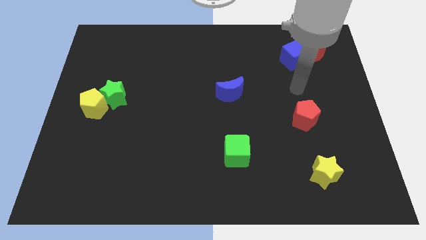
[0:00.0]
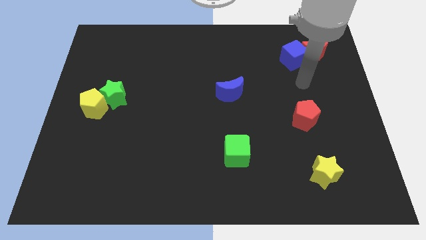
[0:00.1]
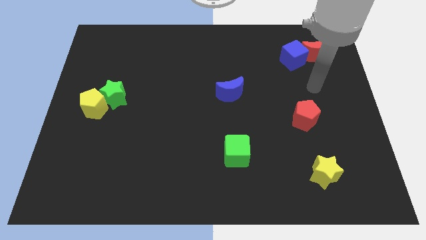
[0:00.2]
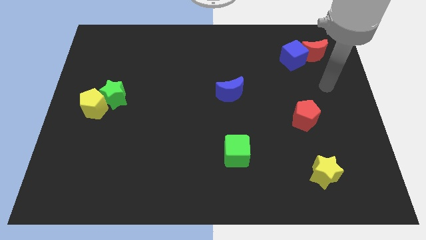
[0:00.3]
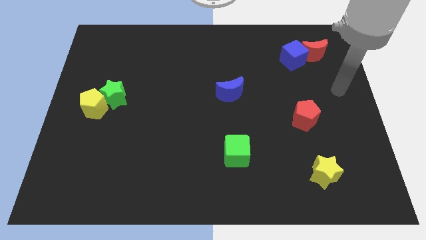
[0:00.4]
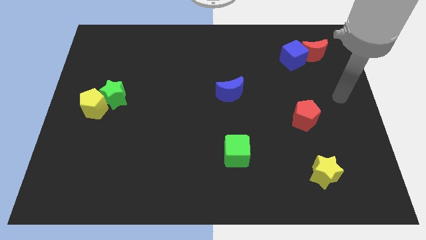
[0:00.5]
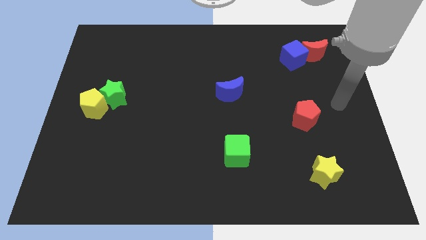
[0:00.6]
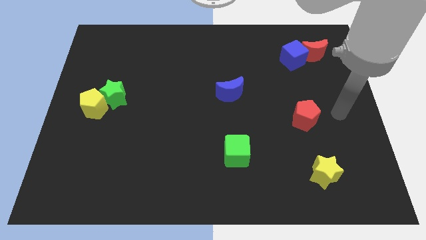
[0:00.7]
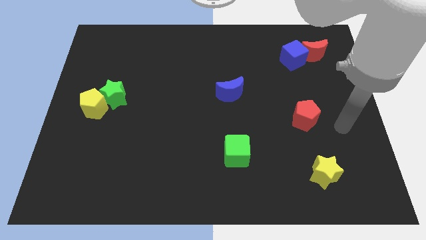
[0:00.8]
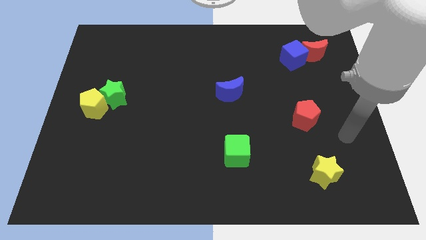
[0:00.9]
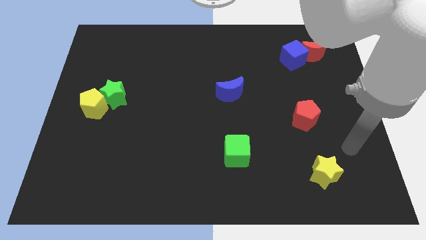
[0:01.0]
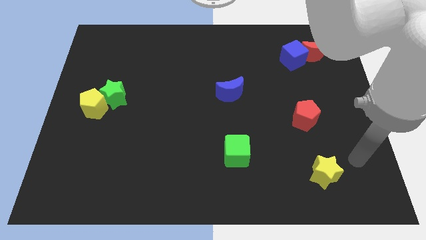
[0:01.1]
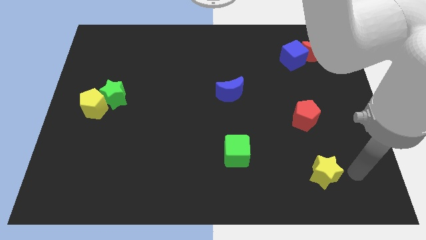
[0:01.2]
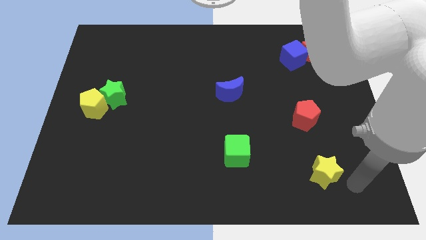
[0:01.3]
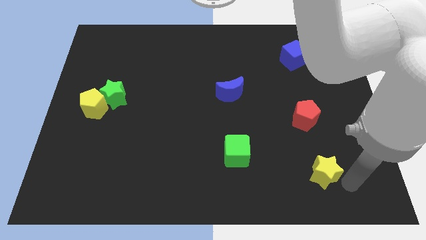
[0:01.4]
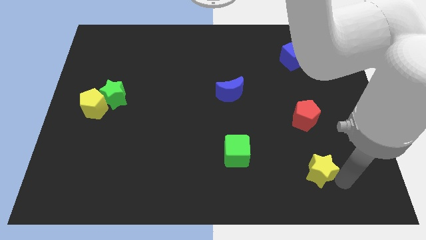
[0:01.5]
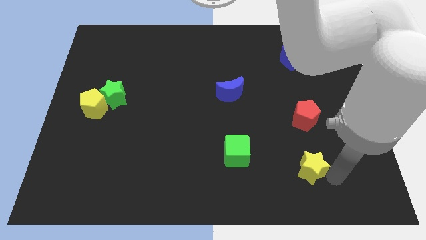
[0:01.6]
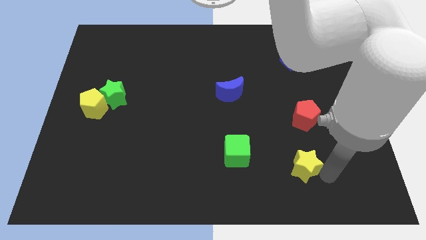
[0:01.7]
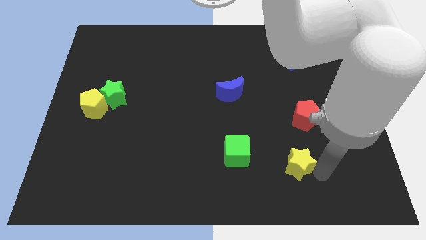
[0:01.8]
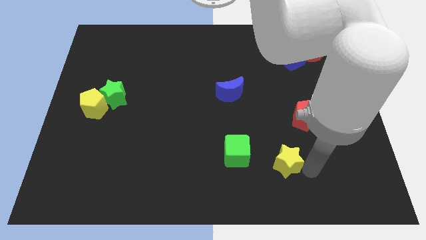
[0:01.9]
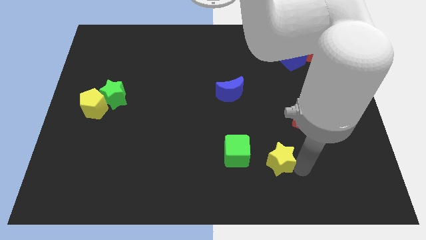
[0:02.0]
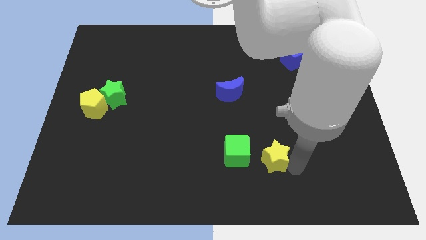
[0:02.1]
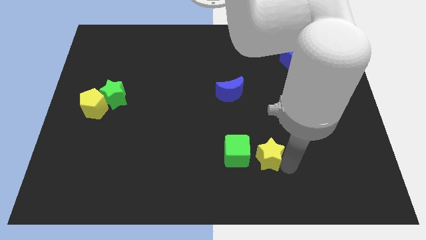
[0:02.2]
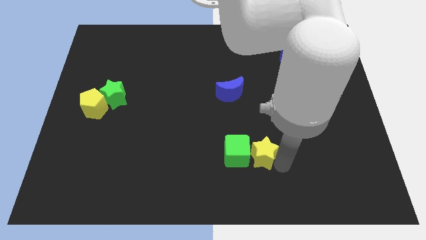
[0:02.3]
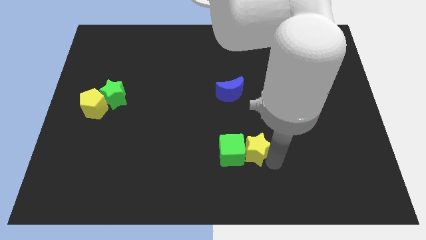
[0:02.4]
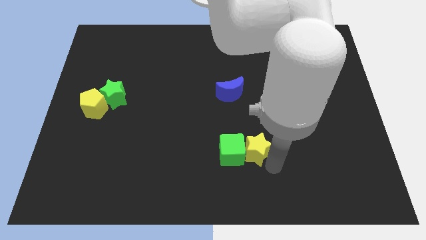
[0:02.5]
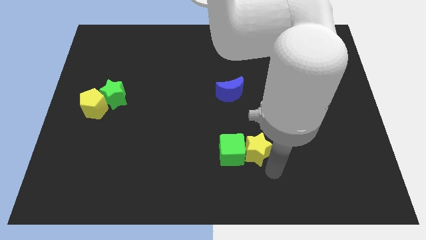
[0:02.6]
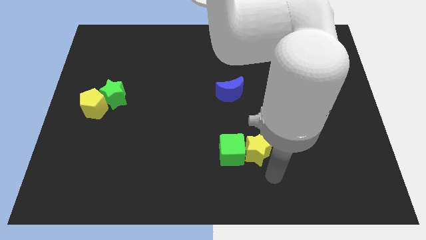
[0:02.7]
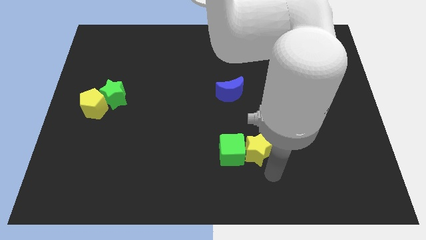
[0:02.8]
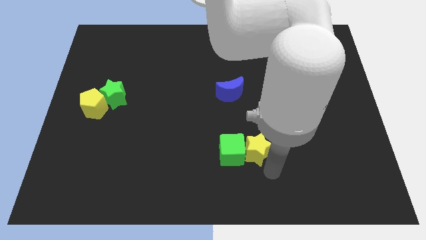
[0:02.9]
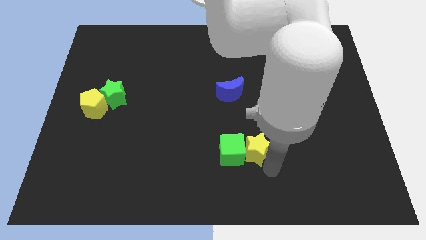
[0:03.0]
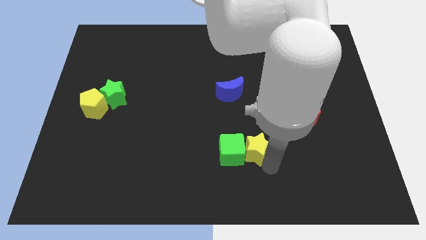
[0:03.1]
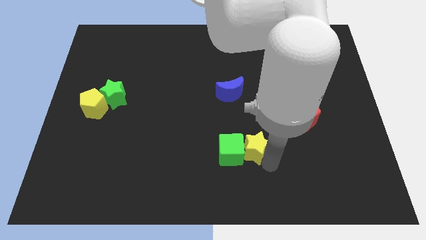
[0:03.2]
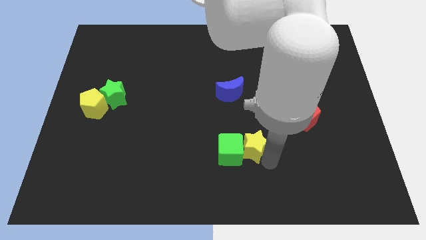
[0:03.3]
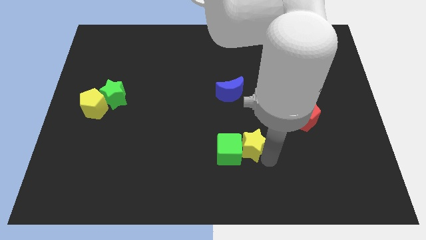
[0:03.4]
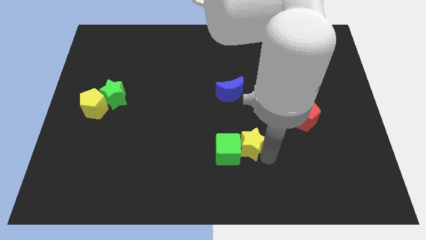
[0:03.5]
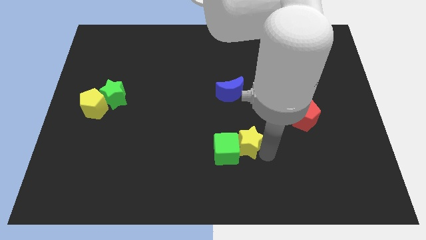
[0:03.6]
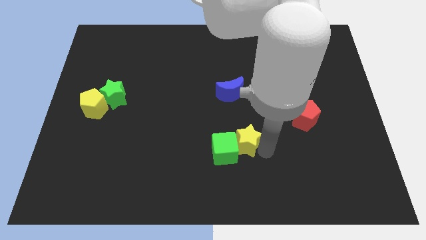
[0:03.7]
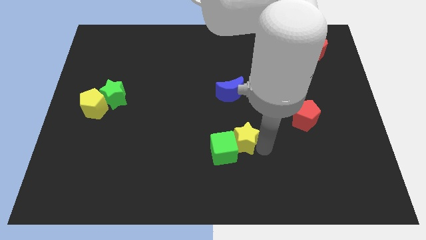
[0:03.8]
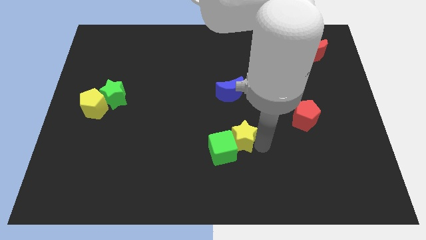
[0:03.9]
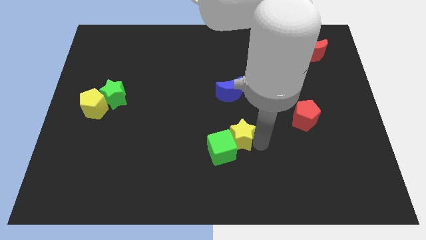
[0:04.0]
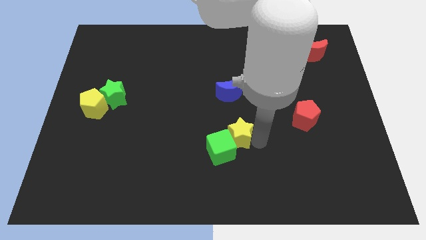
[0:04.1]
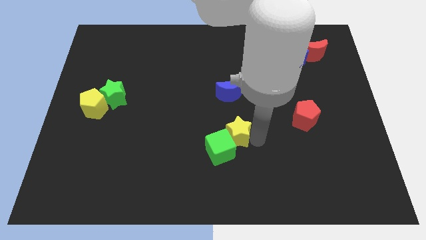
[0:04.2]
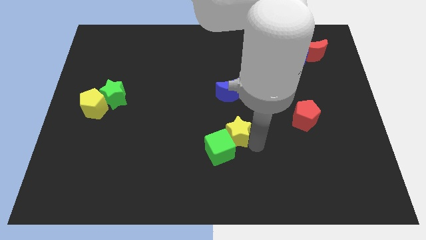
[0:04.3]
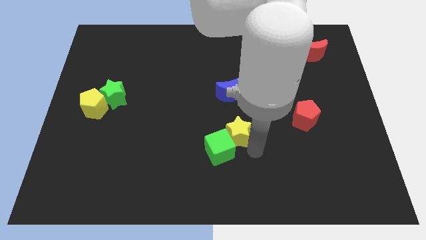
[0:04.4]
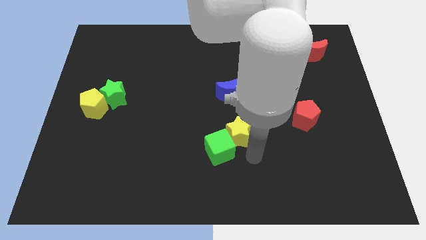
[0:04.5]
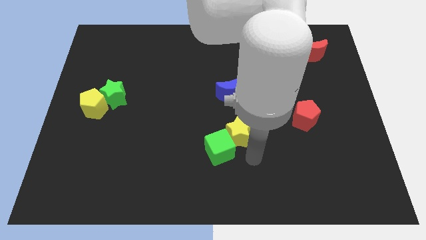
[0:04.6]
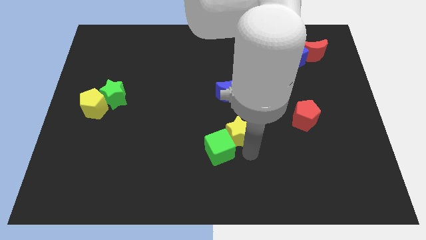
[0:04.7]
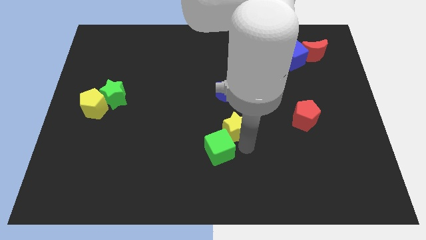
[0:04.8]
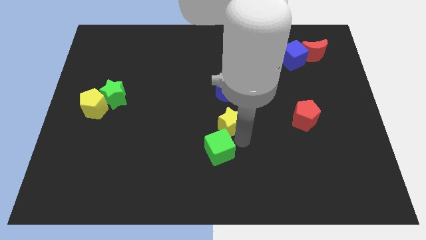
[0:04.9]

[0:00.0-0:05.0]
slide the yellow star up and to the left diagonally

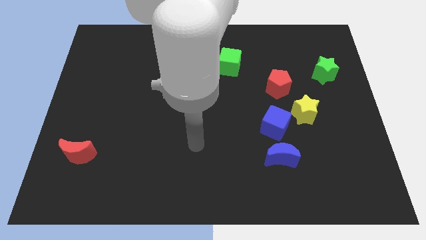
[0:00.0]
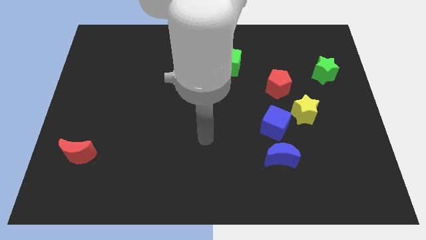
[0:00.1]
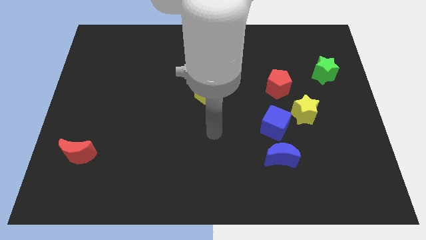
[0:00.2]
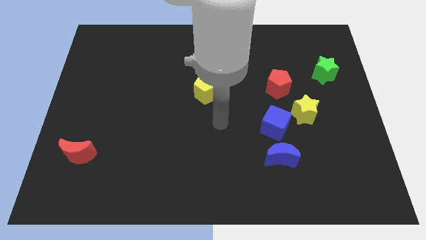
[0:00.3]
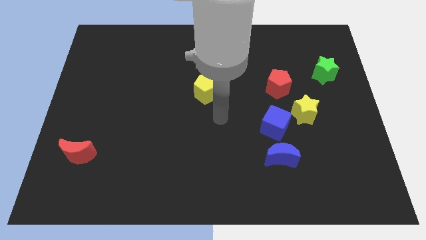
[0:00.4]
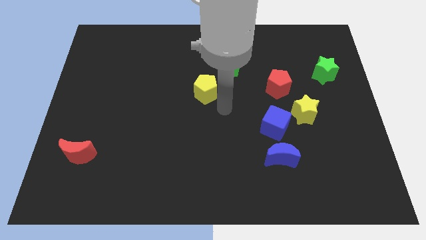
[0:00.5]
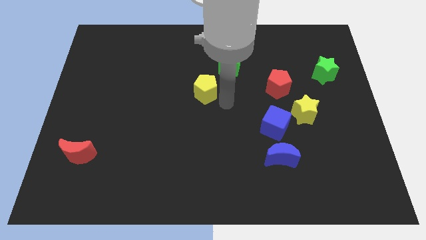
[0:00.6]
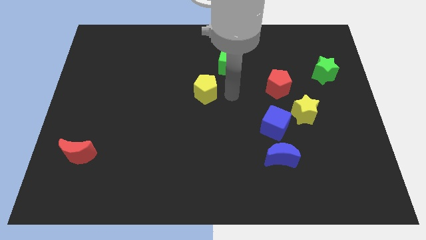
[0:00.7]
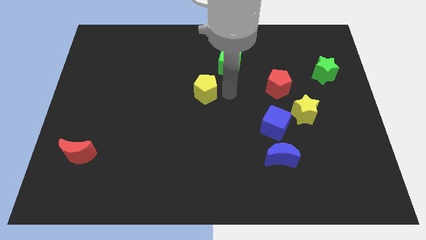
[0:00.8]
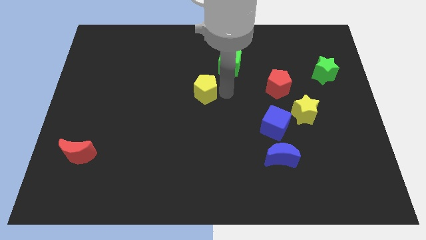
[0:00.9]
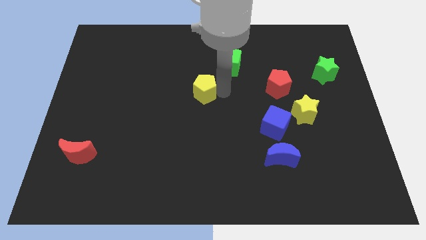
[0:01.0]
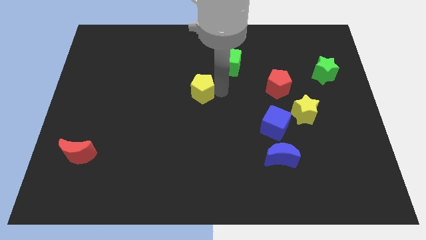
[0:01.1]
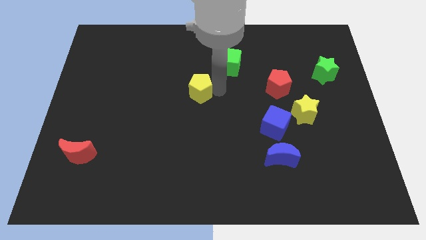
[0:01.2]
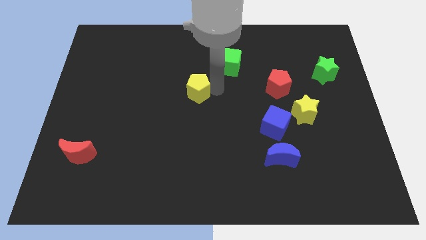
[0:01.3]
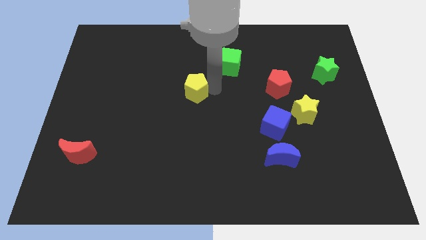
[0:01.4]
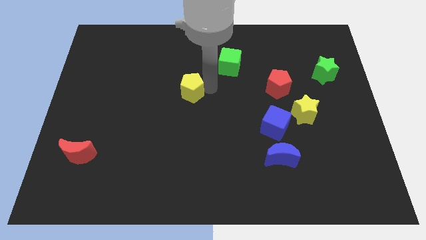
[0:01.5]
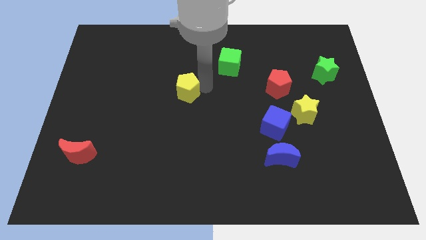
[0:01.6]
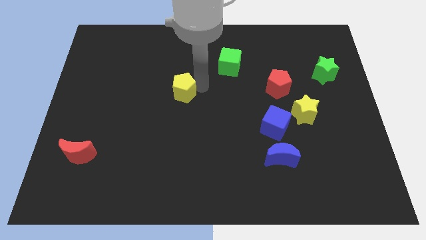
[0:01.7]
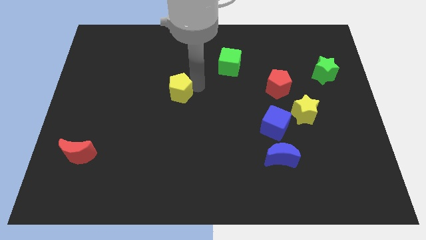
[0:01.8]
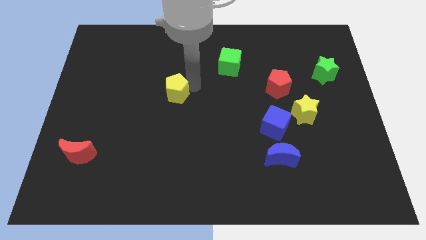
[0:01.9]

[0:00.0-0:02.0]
push the yellow pentagon left a bit

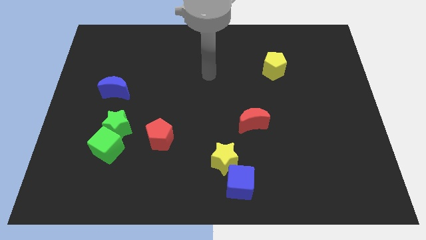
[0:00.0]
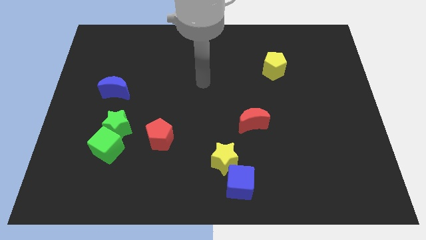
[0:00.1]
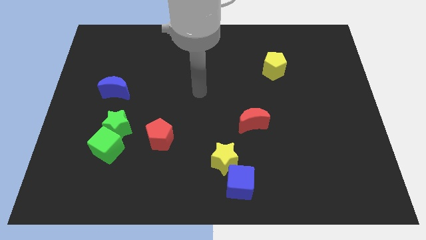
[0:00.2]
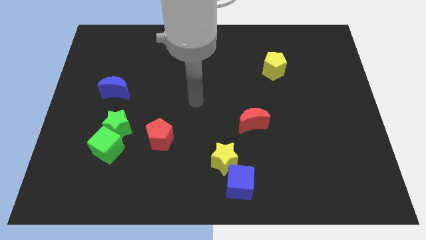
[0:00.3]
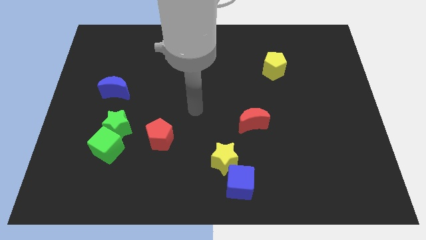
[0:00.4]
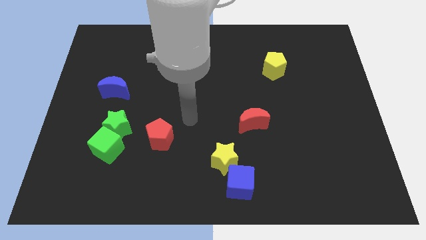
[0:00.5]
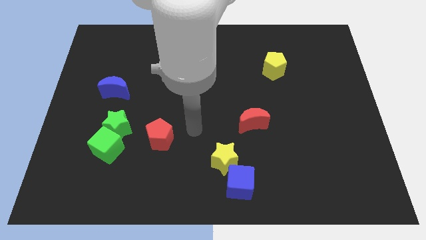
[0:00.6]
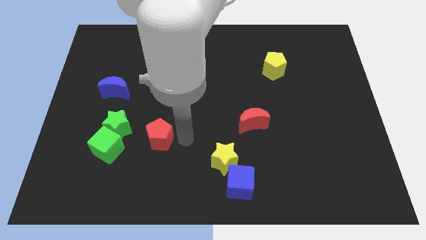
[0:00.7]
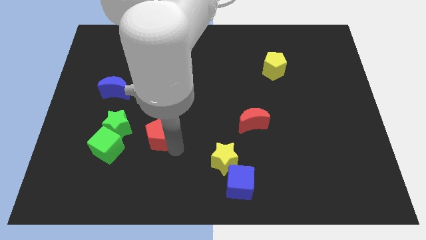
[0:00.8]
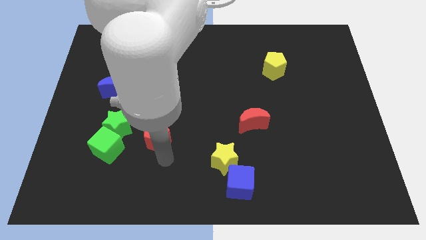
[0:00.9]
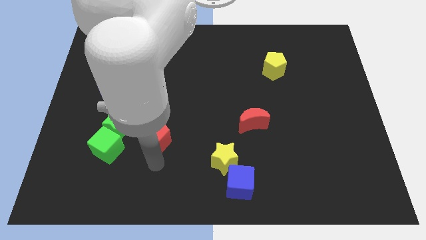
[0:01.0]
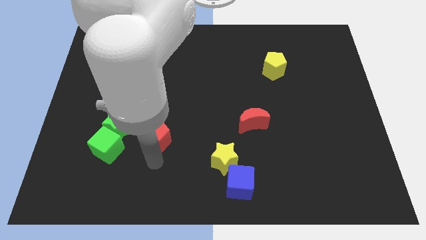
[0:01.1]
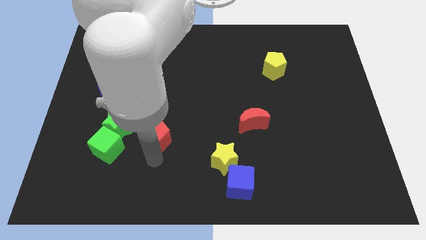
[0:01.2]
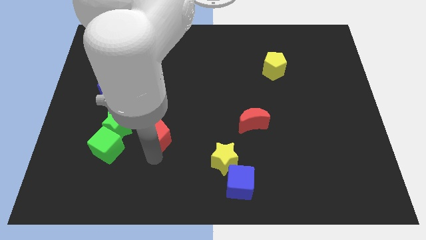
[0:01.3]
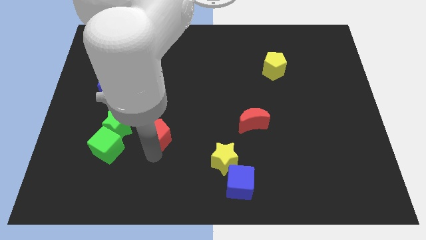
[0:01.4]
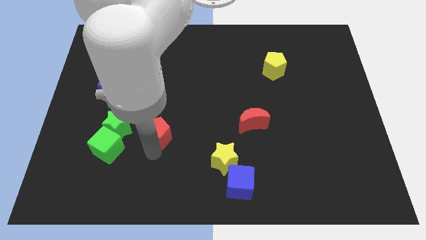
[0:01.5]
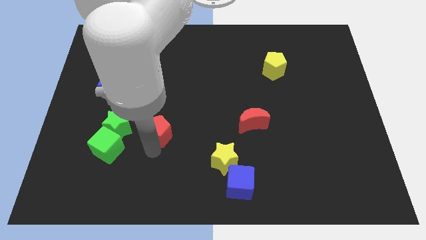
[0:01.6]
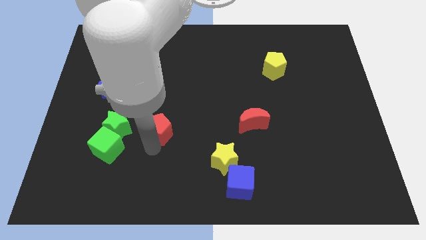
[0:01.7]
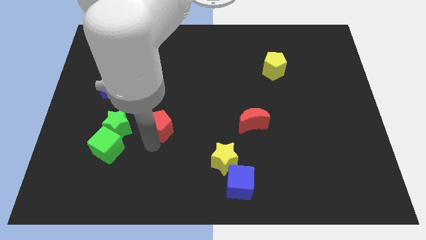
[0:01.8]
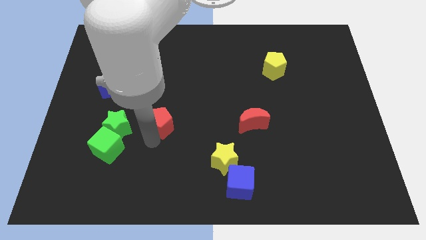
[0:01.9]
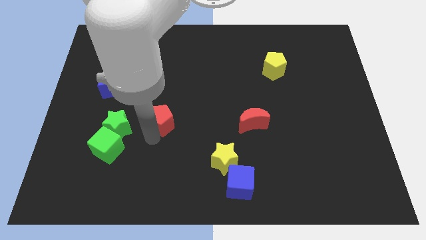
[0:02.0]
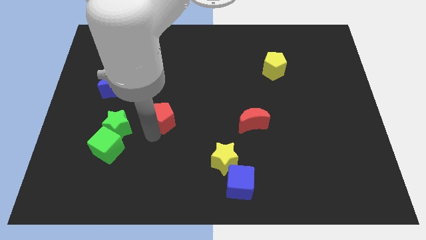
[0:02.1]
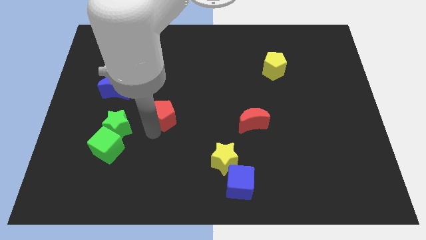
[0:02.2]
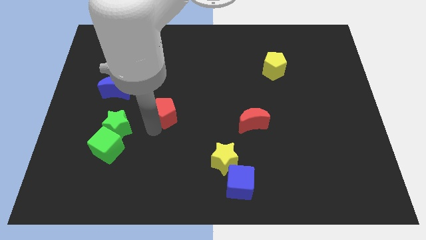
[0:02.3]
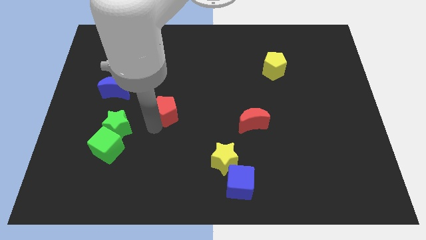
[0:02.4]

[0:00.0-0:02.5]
push the red pentagon upwards slightly
